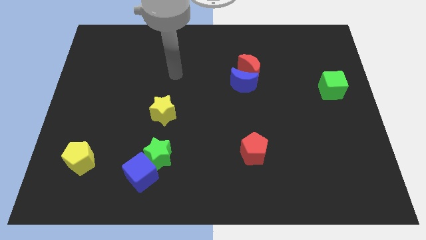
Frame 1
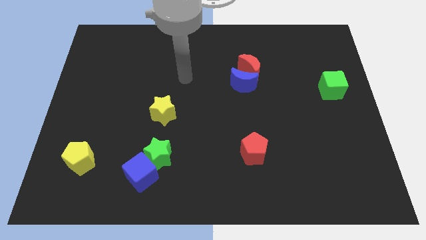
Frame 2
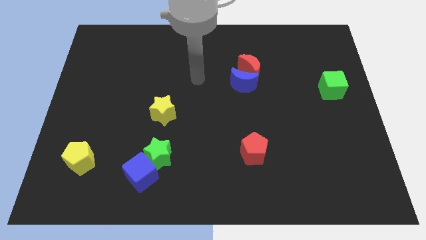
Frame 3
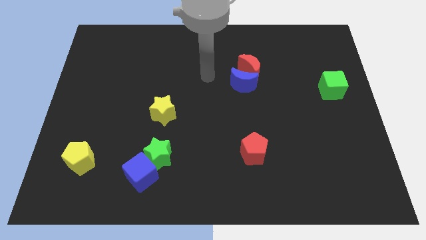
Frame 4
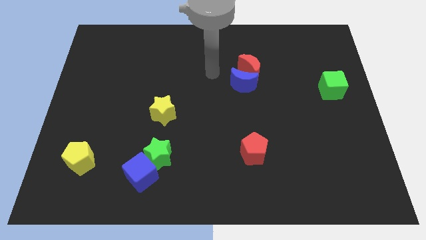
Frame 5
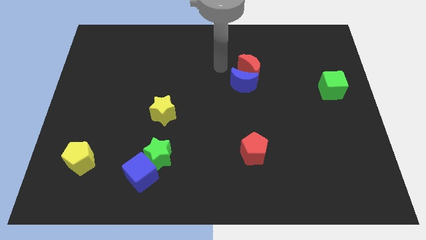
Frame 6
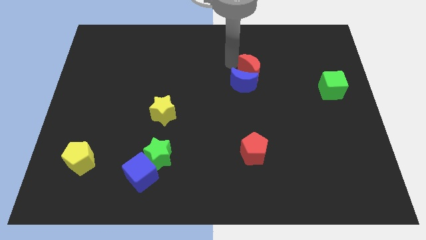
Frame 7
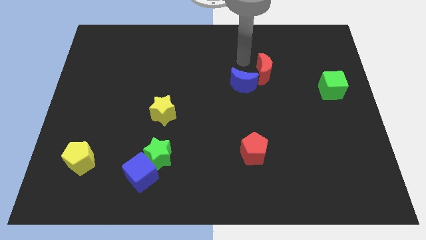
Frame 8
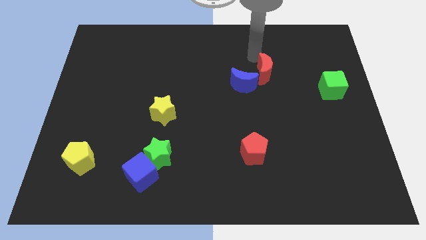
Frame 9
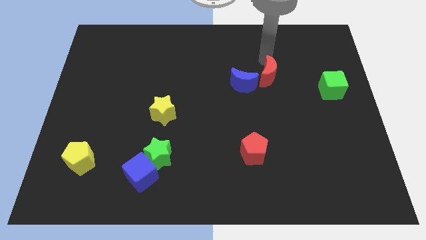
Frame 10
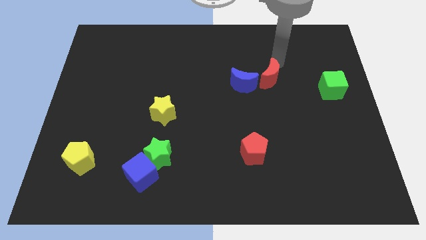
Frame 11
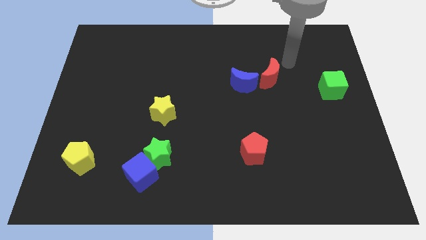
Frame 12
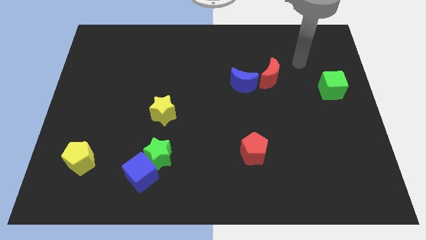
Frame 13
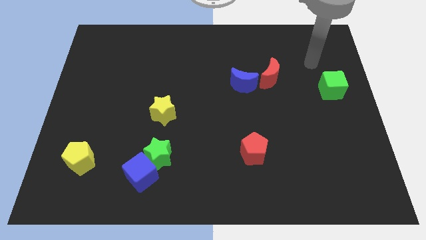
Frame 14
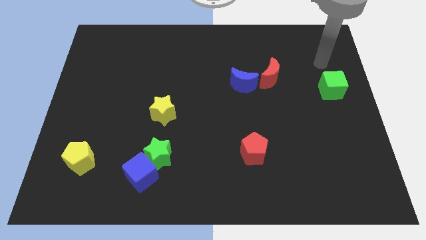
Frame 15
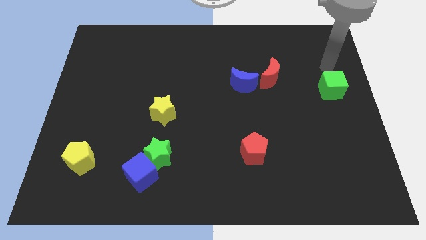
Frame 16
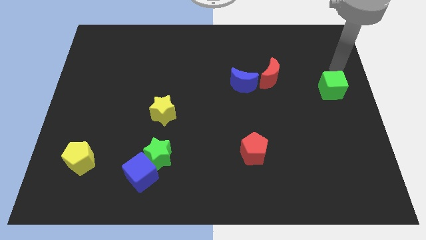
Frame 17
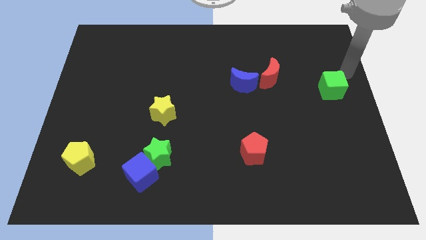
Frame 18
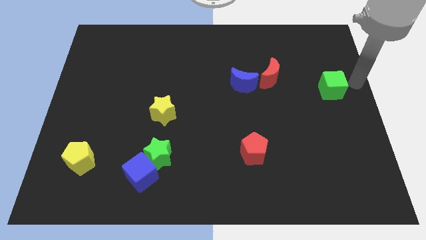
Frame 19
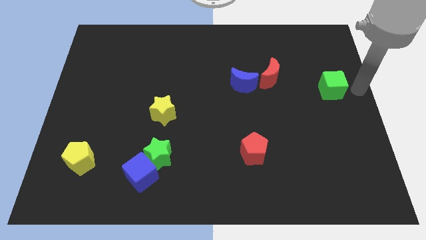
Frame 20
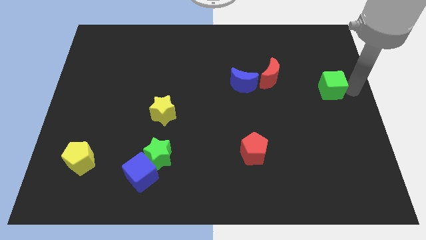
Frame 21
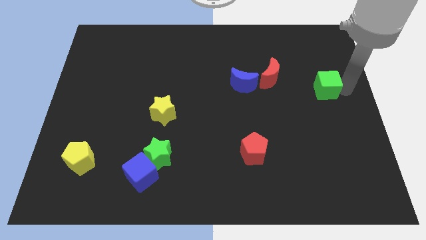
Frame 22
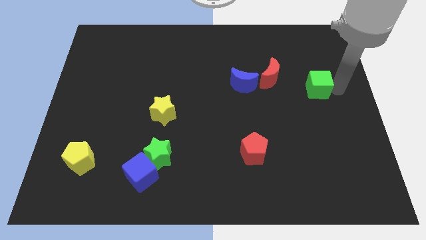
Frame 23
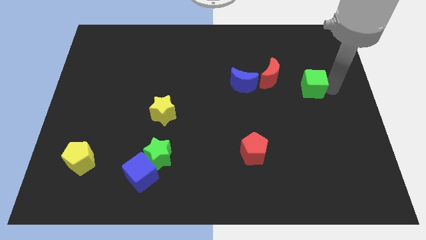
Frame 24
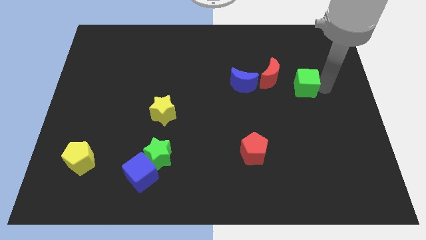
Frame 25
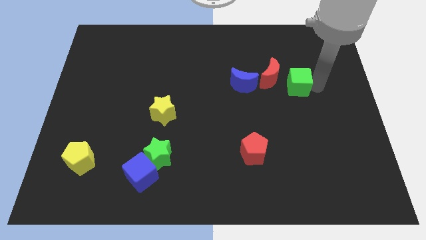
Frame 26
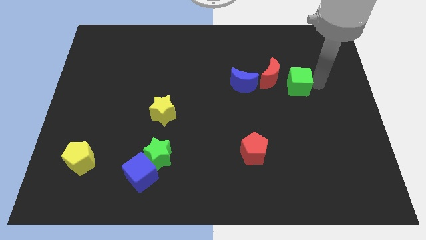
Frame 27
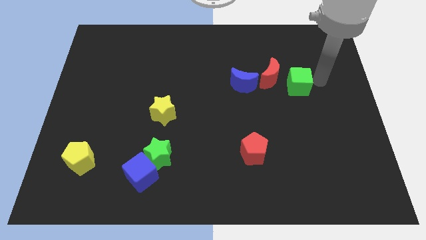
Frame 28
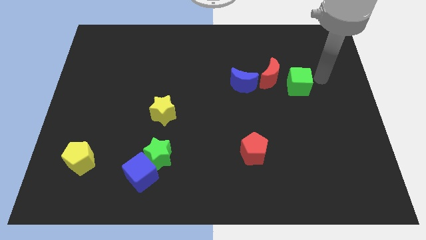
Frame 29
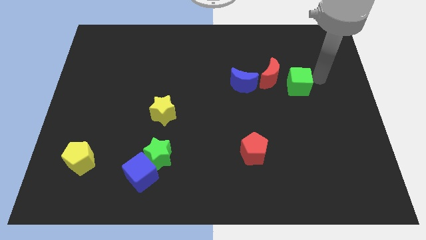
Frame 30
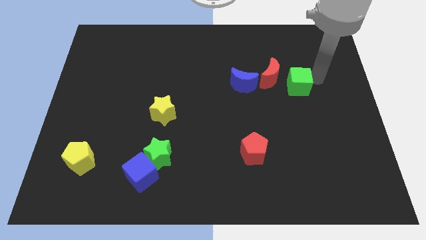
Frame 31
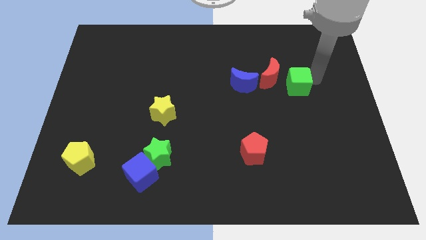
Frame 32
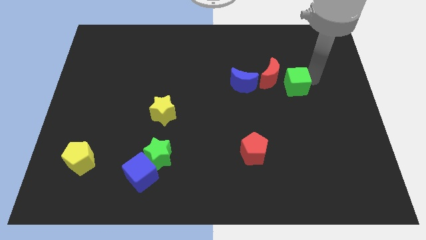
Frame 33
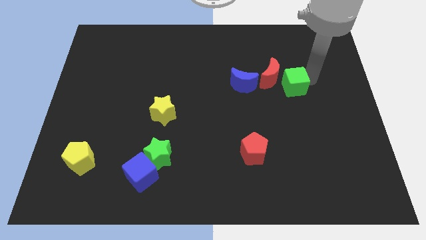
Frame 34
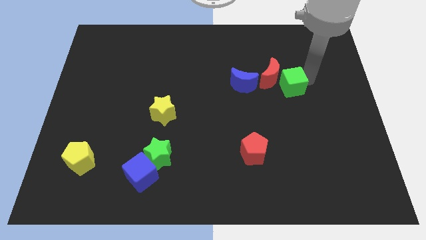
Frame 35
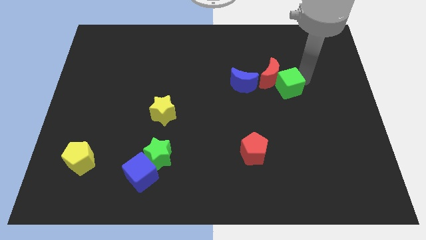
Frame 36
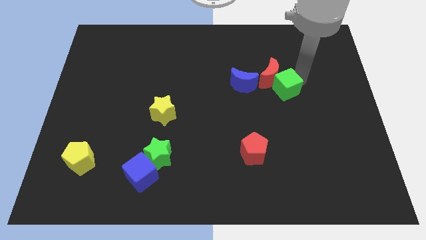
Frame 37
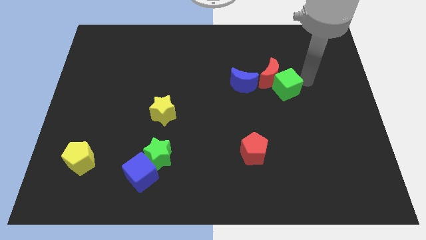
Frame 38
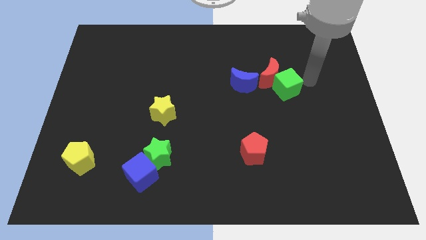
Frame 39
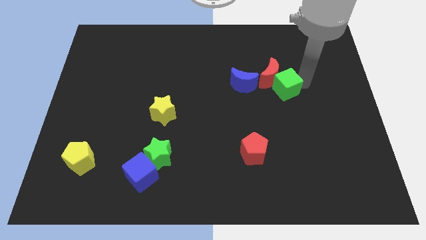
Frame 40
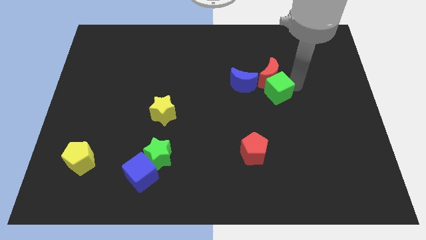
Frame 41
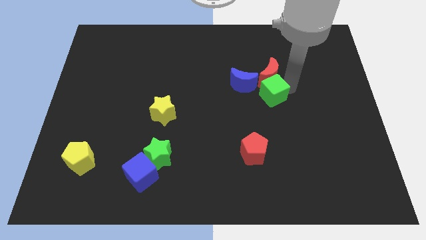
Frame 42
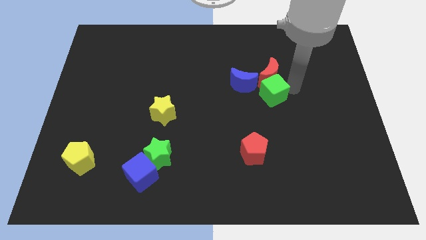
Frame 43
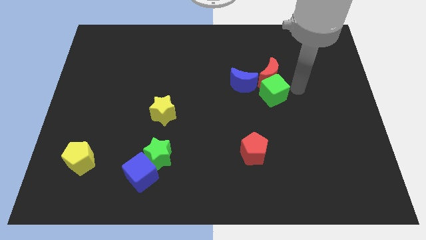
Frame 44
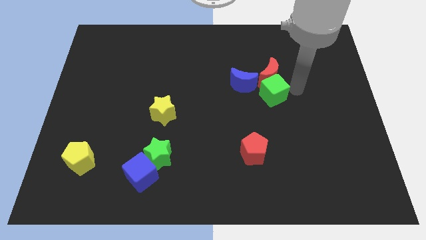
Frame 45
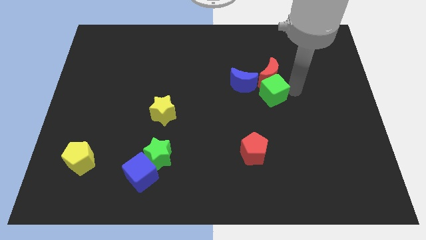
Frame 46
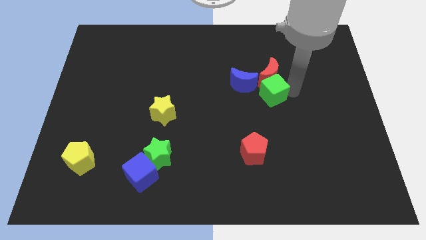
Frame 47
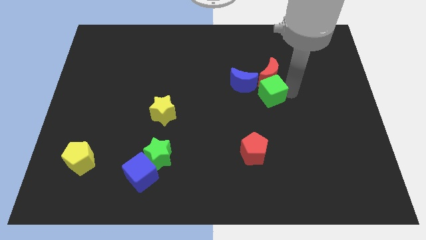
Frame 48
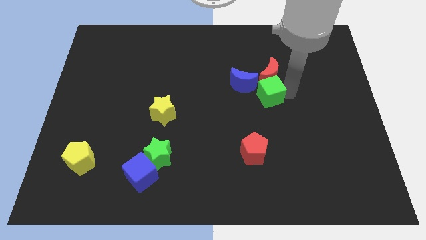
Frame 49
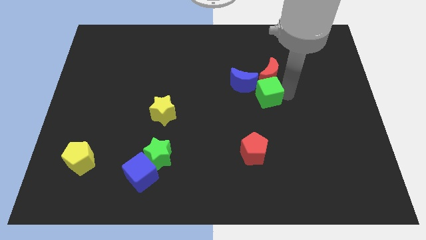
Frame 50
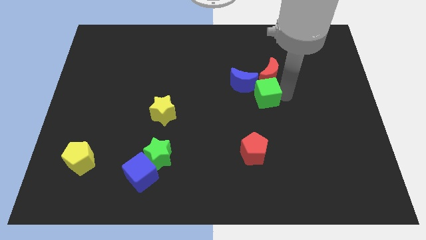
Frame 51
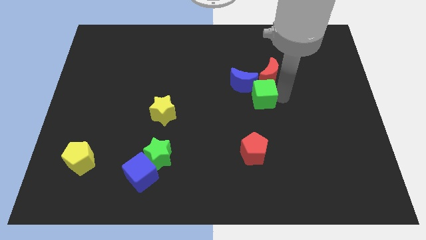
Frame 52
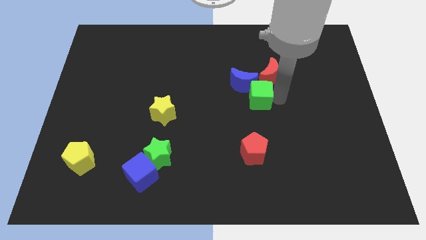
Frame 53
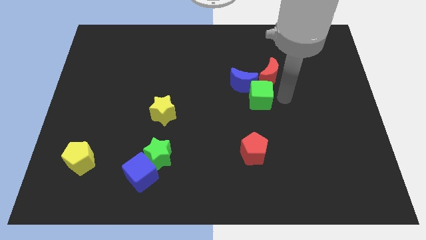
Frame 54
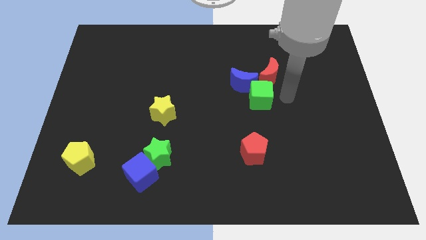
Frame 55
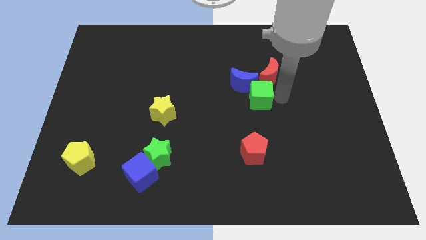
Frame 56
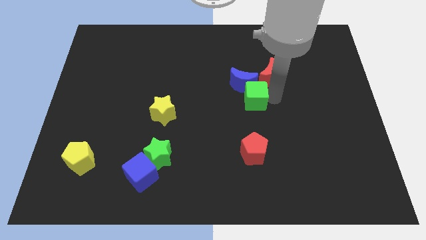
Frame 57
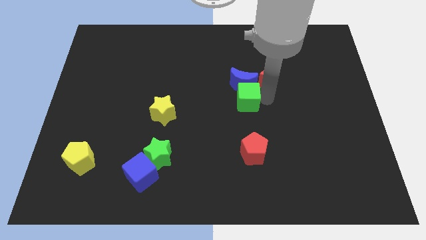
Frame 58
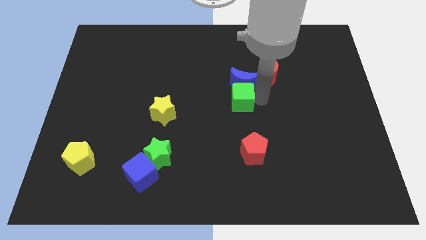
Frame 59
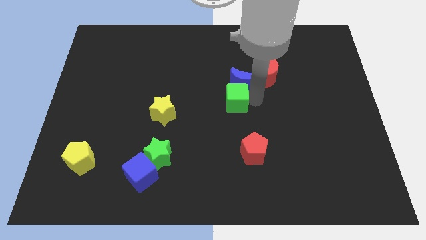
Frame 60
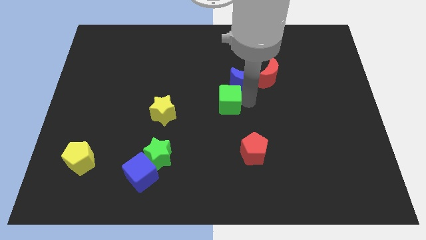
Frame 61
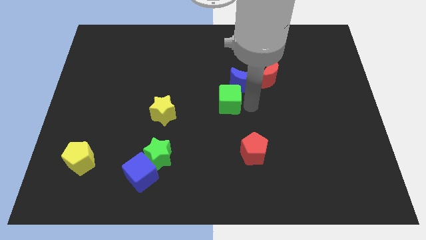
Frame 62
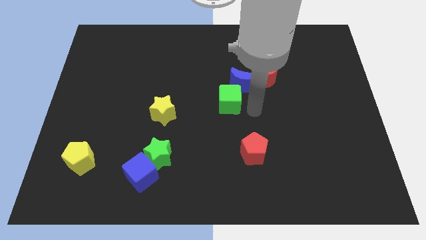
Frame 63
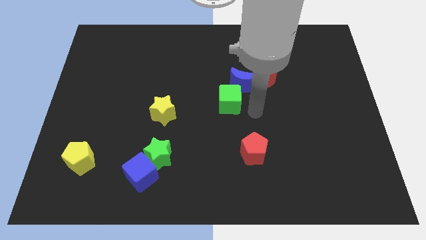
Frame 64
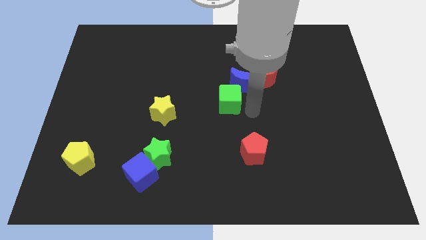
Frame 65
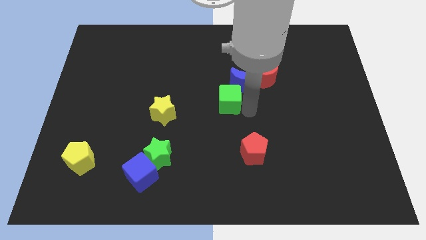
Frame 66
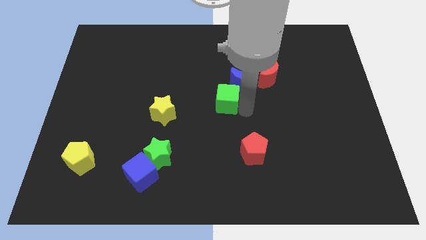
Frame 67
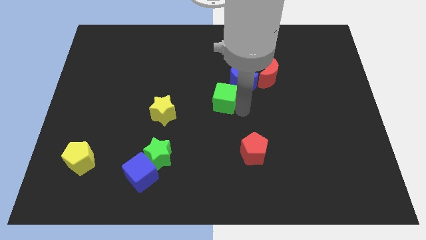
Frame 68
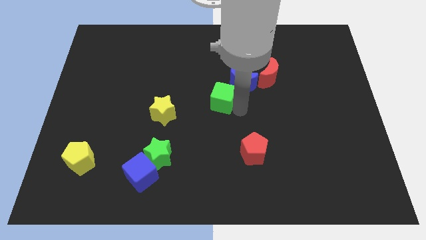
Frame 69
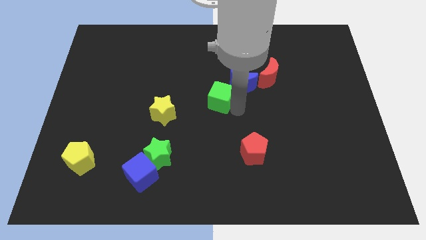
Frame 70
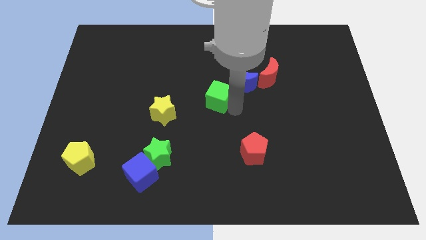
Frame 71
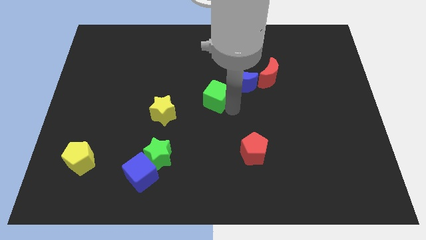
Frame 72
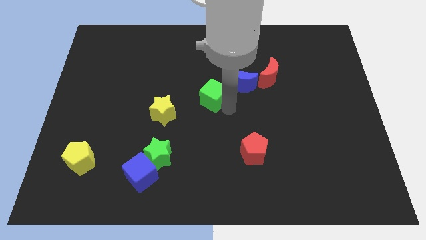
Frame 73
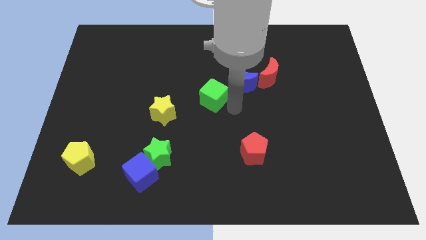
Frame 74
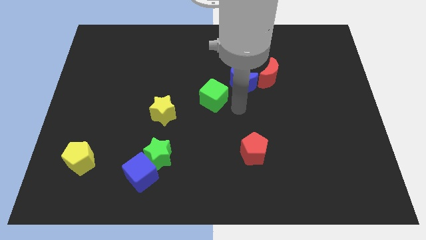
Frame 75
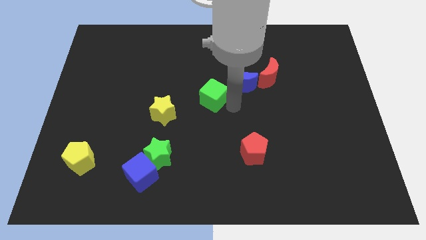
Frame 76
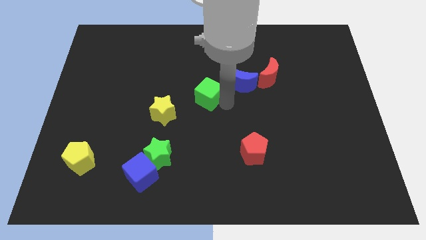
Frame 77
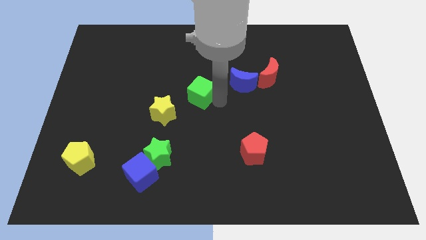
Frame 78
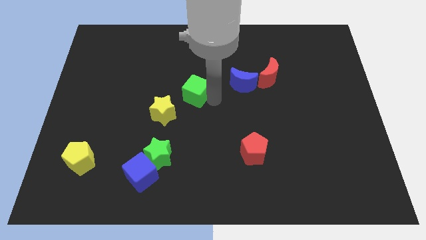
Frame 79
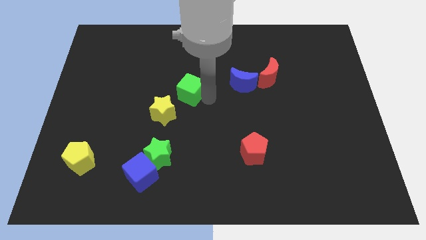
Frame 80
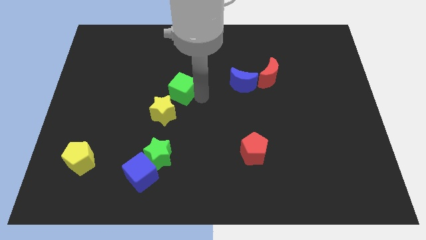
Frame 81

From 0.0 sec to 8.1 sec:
put the green cube to the top side of the yellow star
